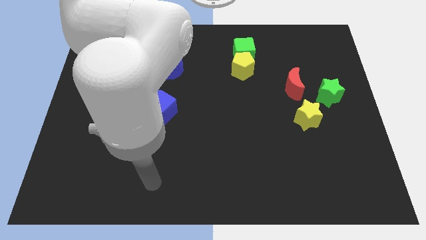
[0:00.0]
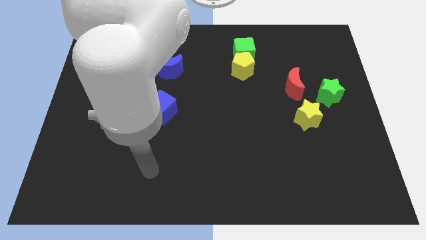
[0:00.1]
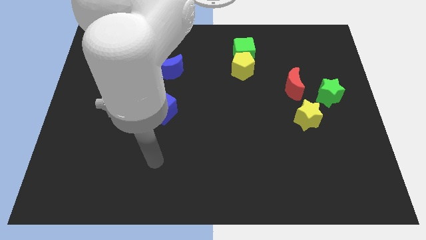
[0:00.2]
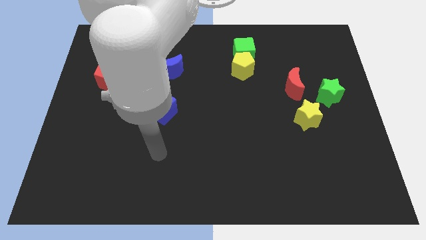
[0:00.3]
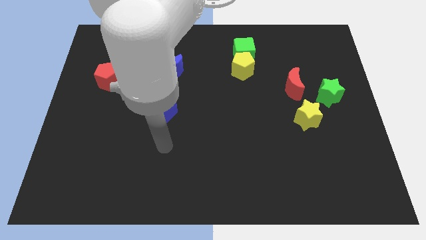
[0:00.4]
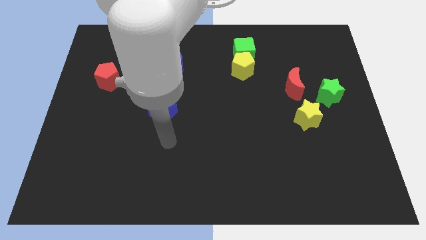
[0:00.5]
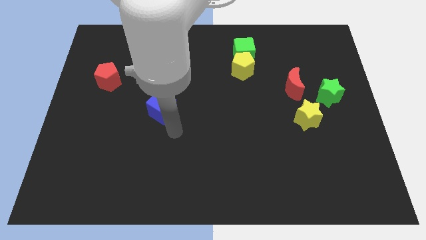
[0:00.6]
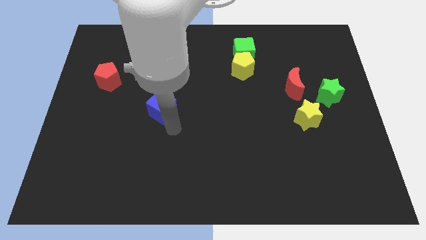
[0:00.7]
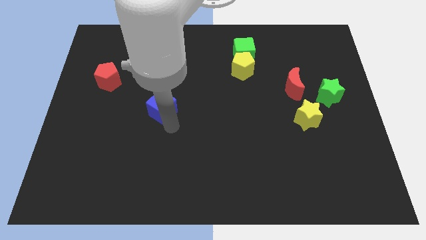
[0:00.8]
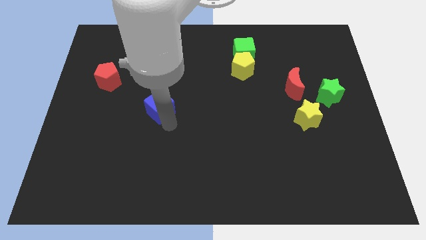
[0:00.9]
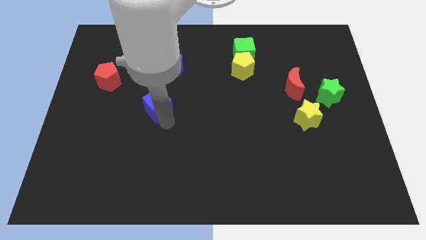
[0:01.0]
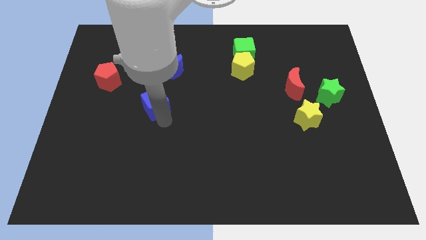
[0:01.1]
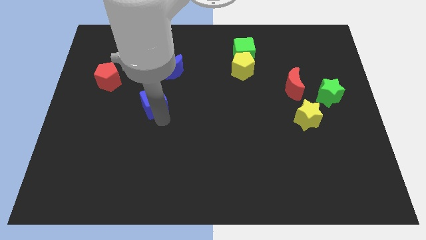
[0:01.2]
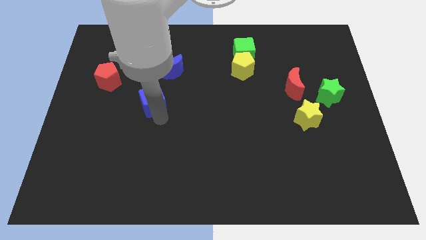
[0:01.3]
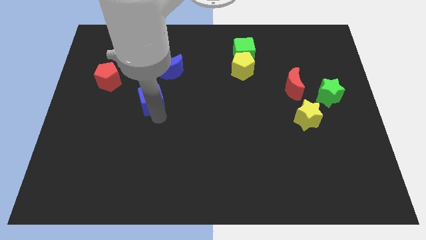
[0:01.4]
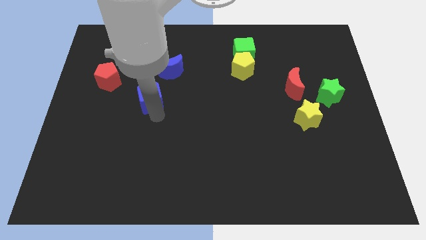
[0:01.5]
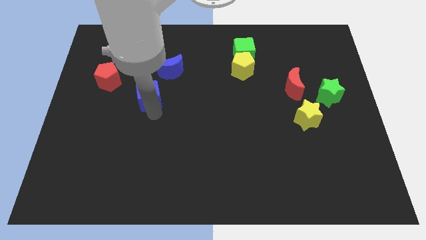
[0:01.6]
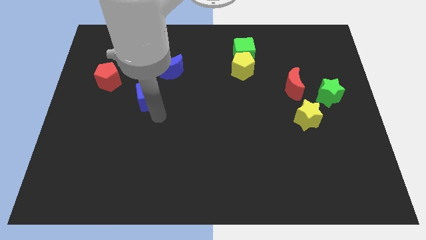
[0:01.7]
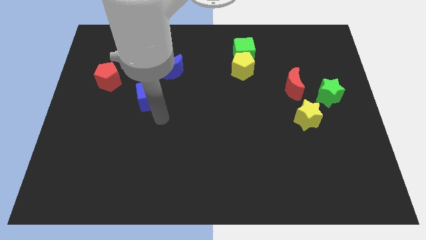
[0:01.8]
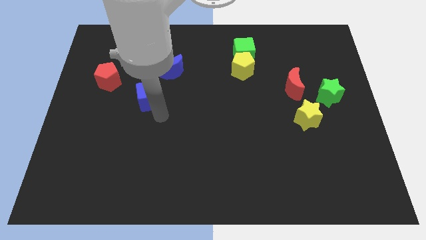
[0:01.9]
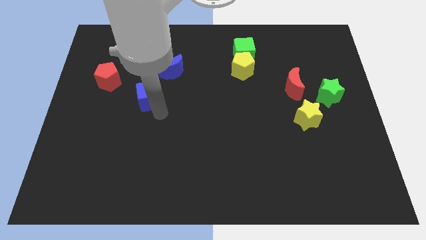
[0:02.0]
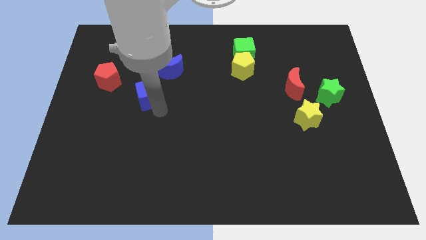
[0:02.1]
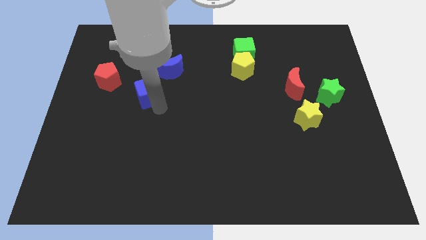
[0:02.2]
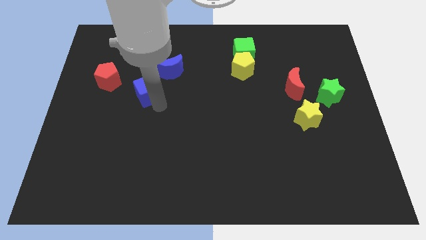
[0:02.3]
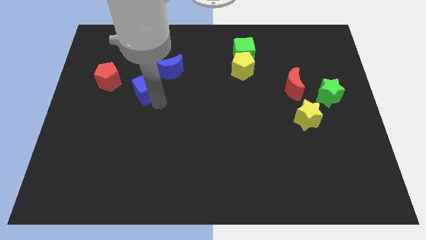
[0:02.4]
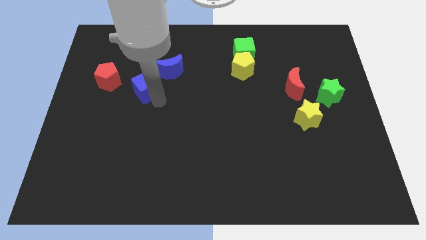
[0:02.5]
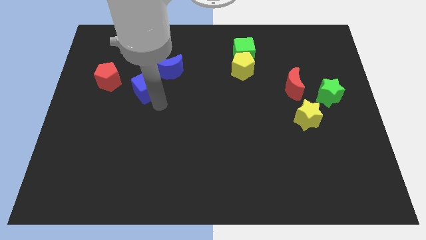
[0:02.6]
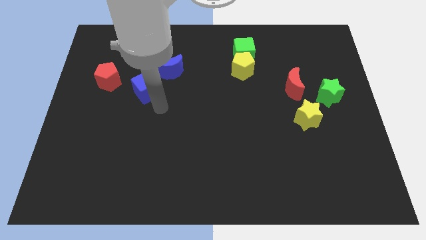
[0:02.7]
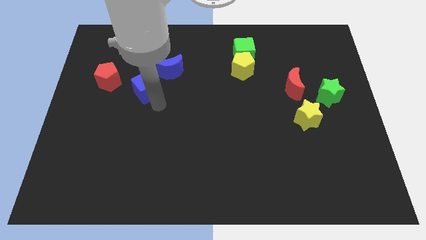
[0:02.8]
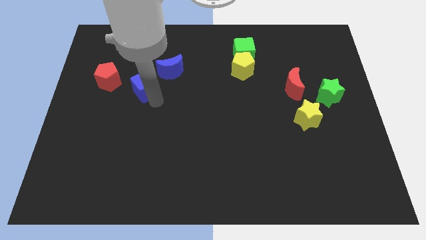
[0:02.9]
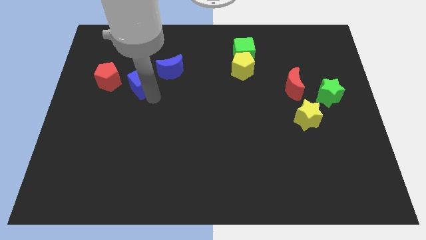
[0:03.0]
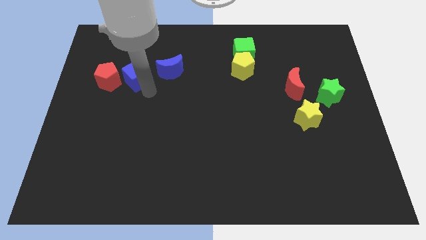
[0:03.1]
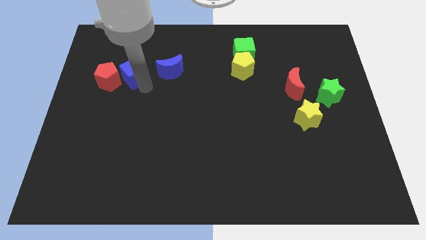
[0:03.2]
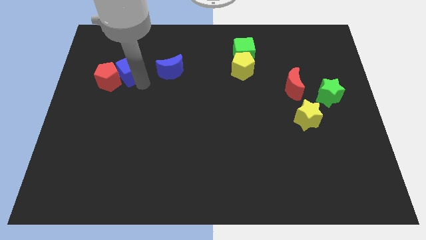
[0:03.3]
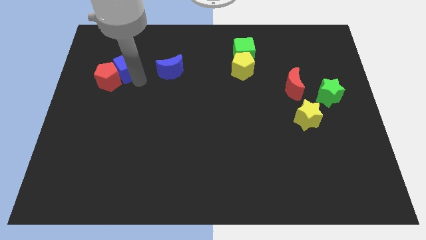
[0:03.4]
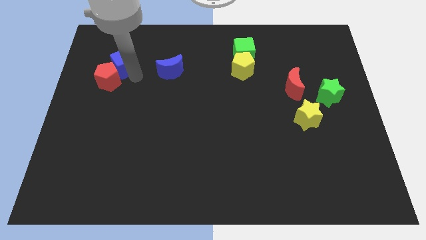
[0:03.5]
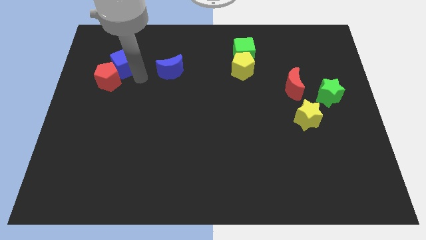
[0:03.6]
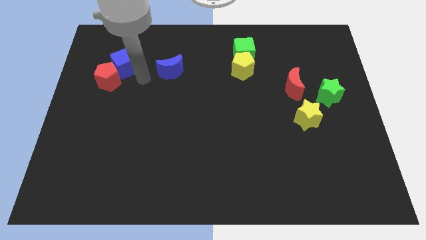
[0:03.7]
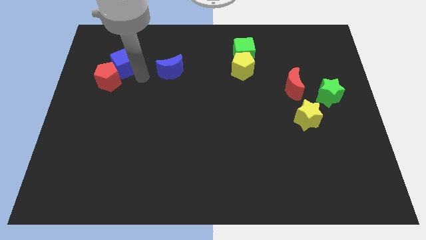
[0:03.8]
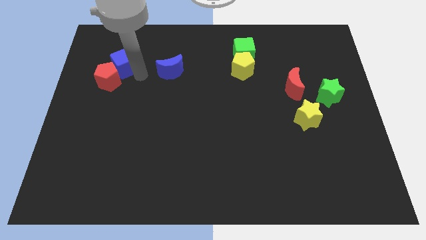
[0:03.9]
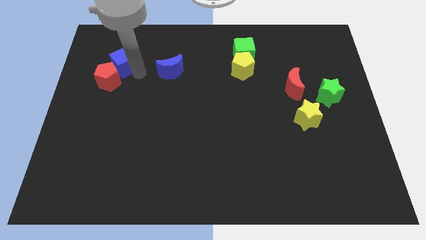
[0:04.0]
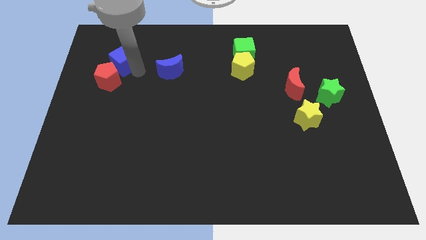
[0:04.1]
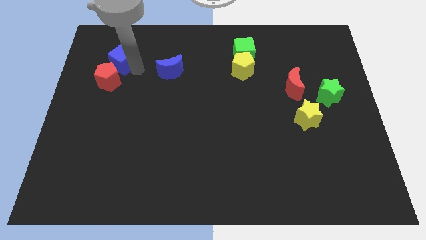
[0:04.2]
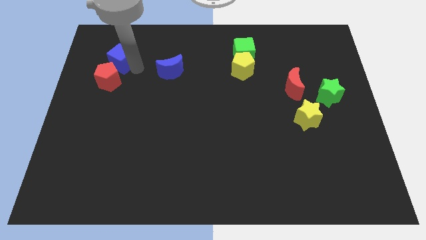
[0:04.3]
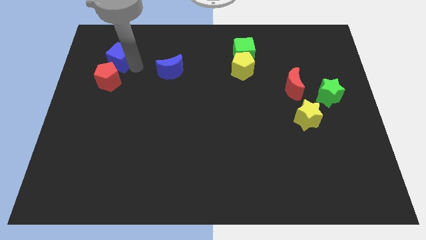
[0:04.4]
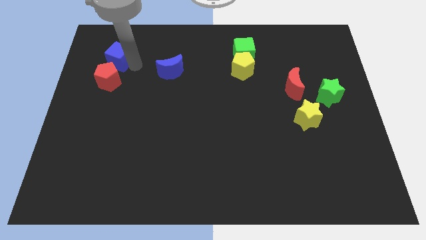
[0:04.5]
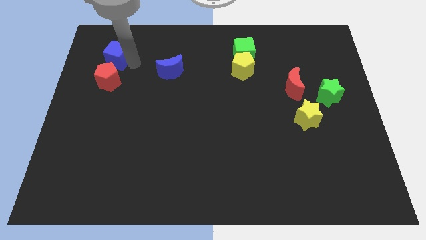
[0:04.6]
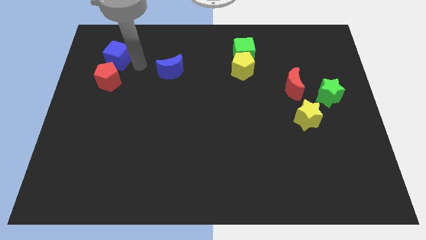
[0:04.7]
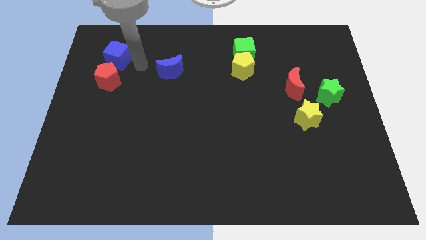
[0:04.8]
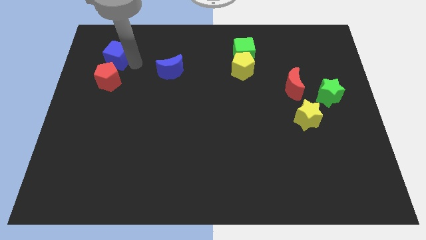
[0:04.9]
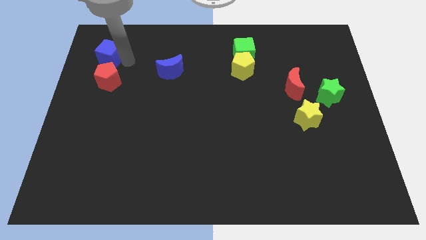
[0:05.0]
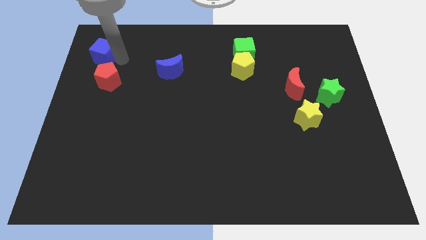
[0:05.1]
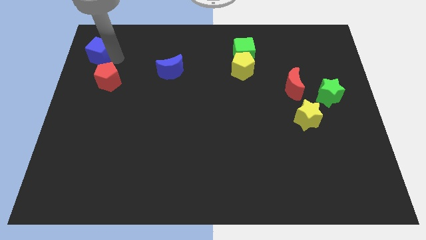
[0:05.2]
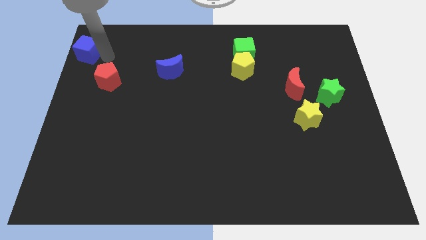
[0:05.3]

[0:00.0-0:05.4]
put the blue cube to the upper left corner

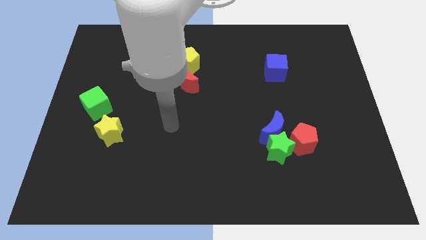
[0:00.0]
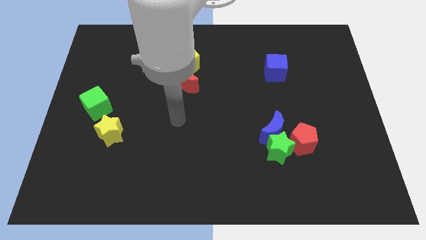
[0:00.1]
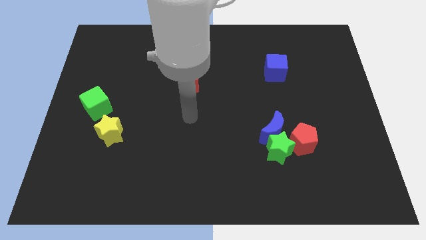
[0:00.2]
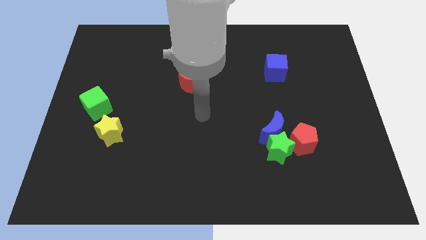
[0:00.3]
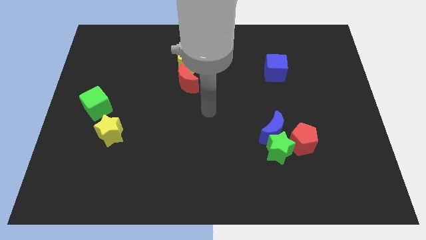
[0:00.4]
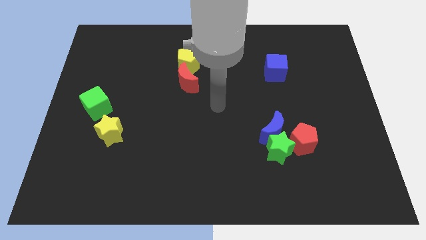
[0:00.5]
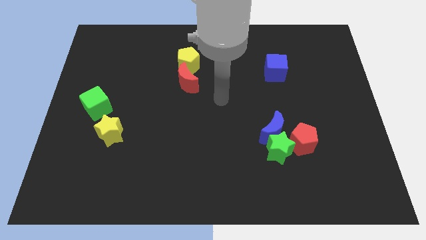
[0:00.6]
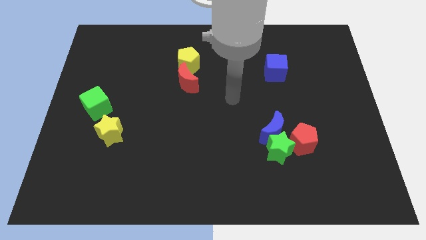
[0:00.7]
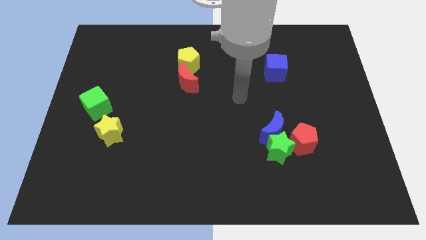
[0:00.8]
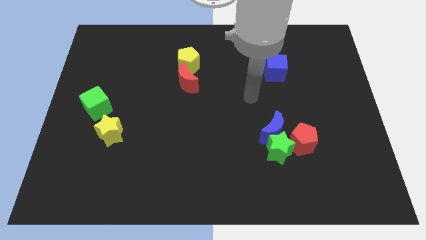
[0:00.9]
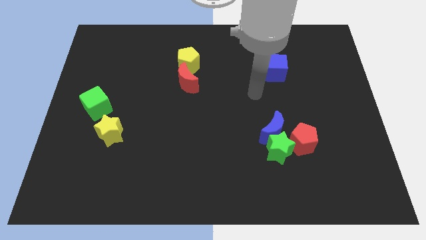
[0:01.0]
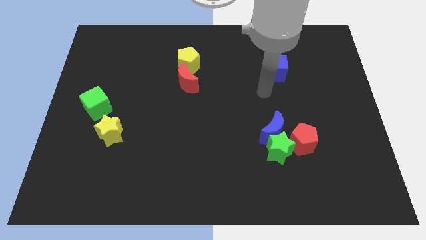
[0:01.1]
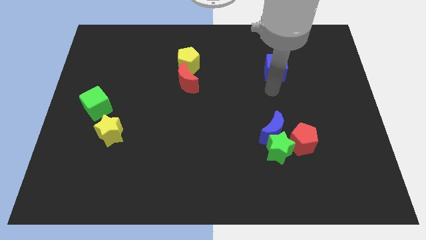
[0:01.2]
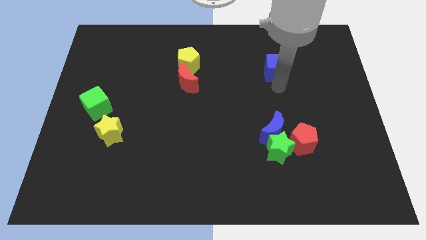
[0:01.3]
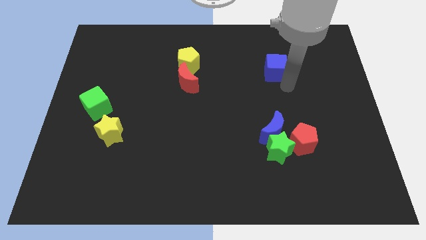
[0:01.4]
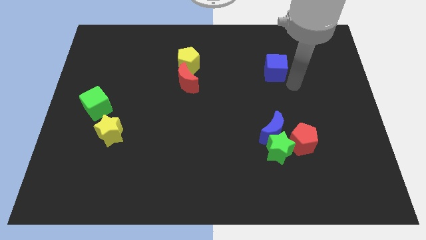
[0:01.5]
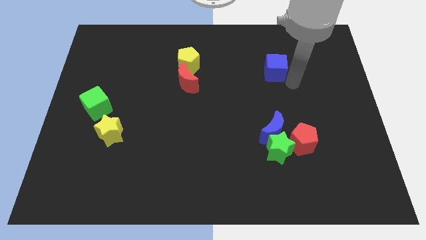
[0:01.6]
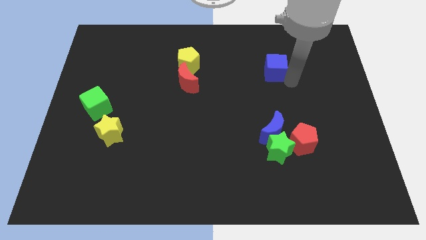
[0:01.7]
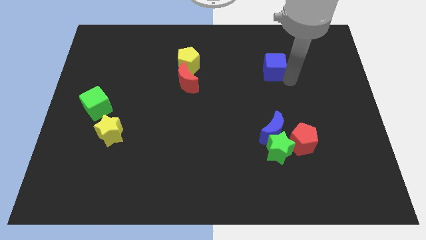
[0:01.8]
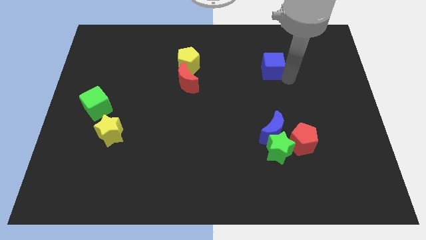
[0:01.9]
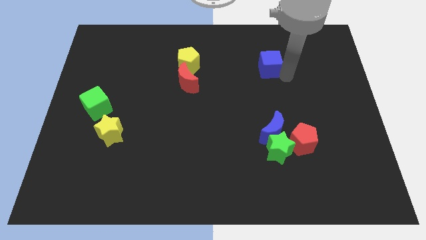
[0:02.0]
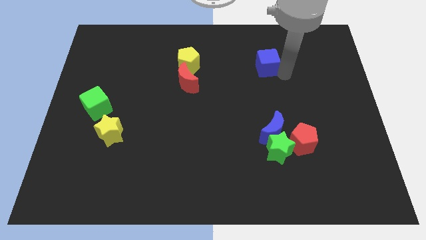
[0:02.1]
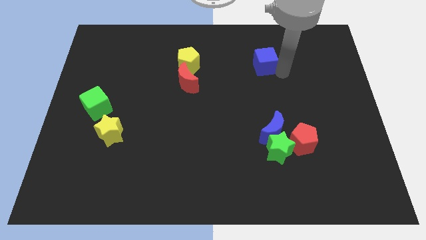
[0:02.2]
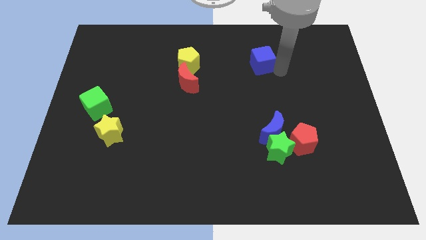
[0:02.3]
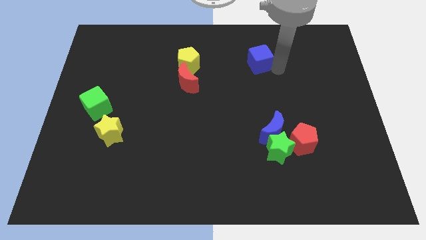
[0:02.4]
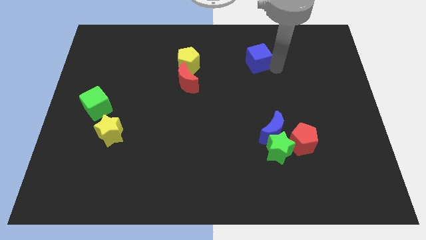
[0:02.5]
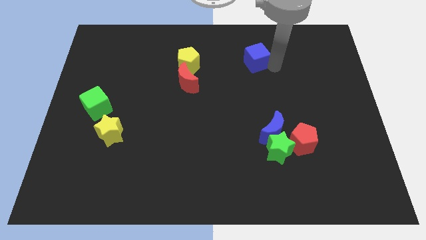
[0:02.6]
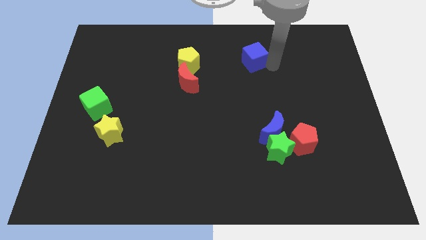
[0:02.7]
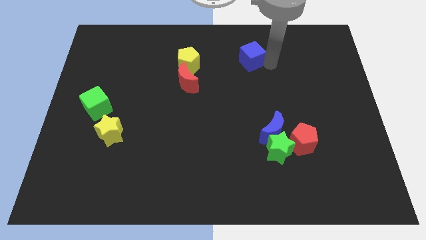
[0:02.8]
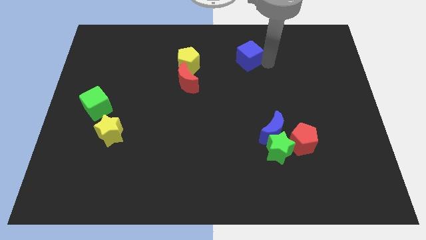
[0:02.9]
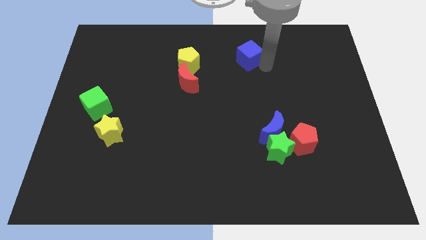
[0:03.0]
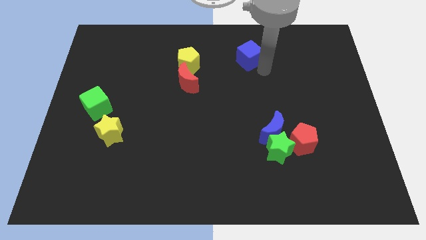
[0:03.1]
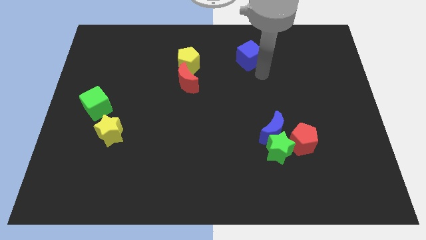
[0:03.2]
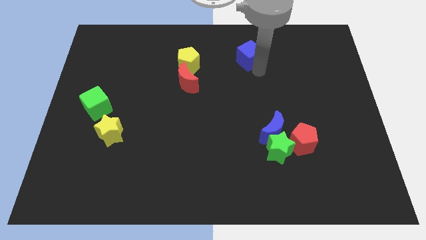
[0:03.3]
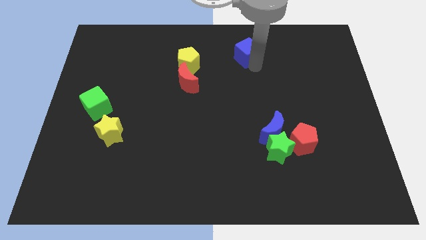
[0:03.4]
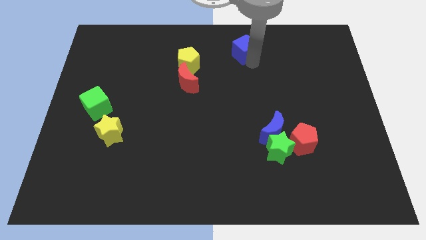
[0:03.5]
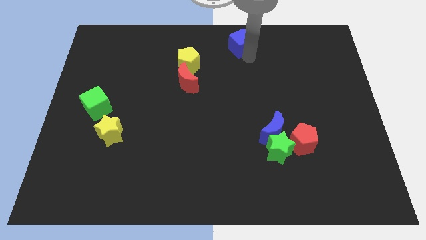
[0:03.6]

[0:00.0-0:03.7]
move the blue cube to the towards your base
